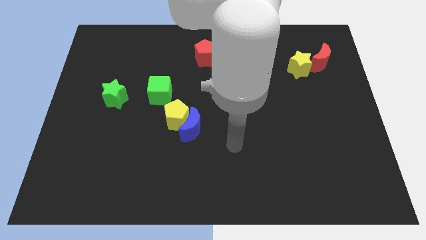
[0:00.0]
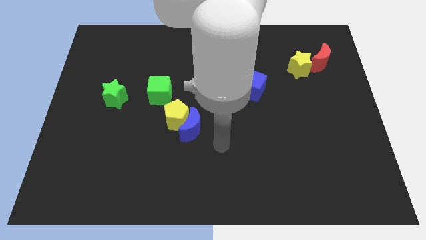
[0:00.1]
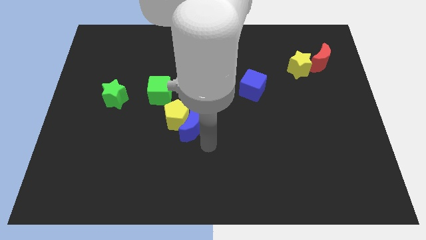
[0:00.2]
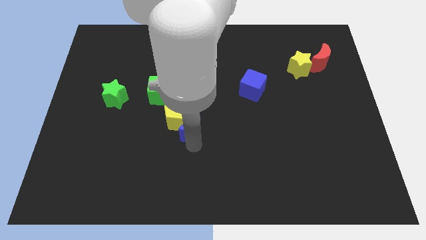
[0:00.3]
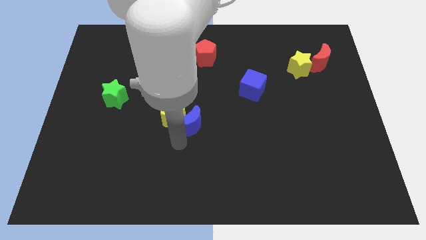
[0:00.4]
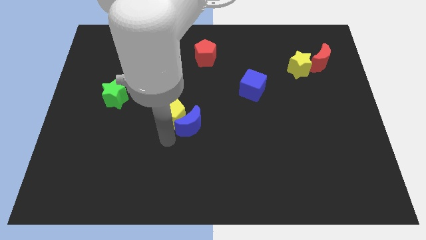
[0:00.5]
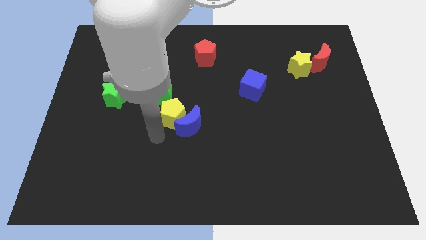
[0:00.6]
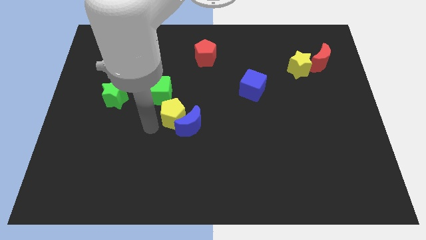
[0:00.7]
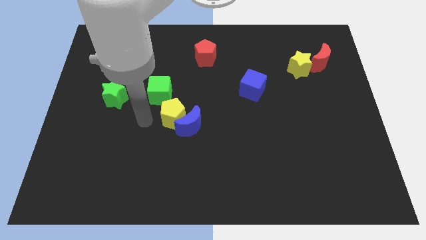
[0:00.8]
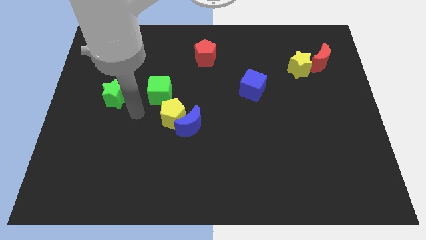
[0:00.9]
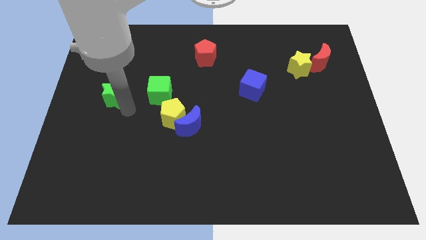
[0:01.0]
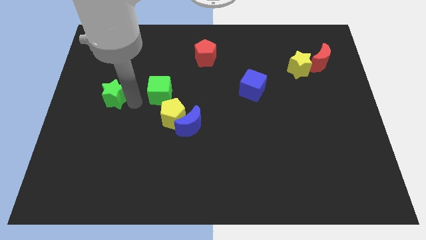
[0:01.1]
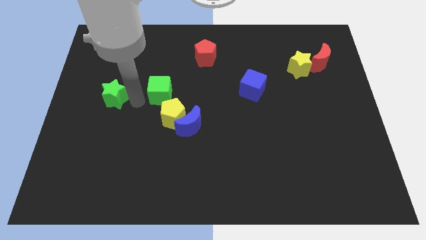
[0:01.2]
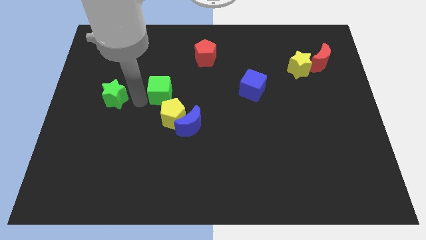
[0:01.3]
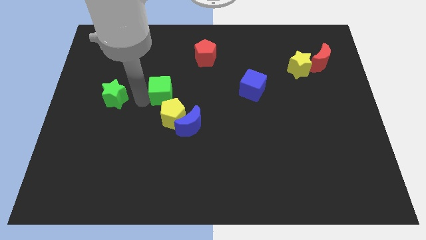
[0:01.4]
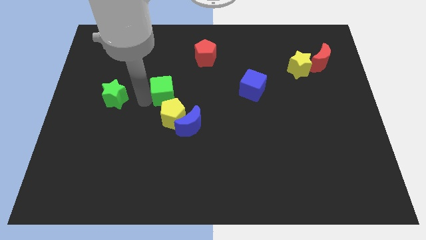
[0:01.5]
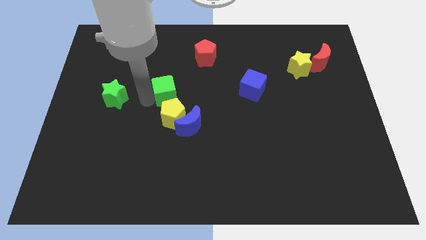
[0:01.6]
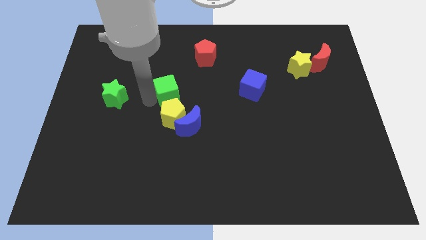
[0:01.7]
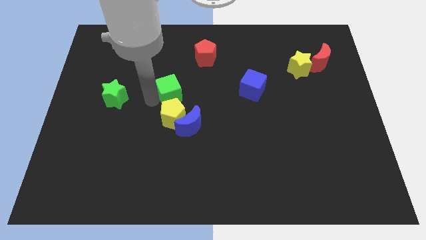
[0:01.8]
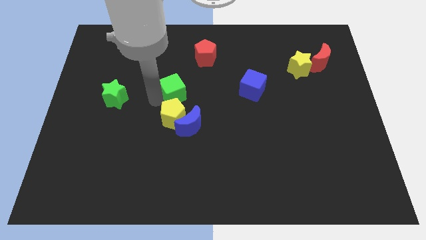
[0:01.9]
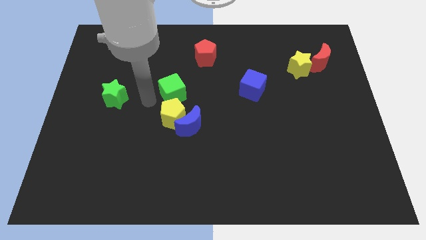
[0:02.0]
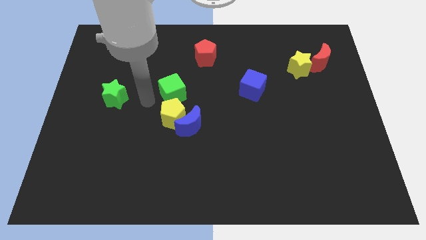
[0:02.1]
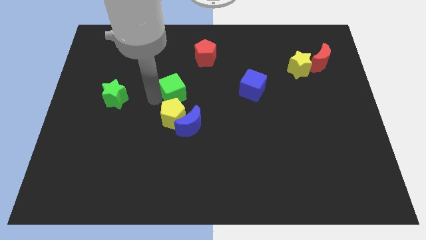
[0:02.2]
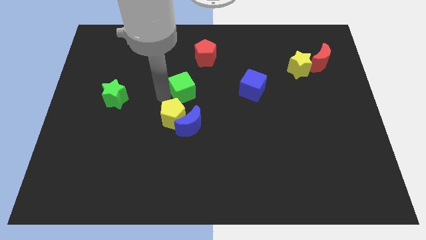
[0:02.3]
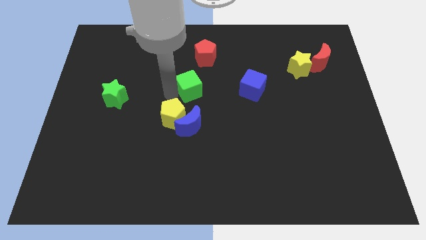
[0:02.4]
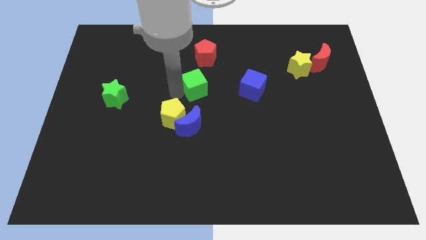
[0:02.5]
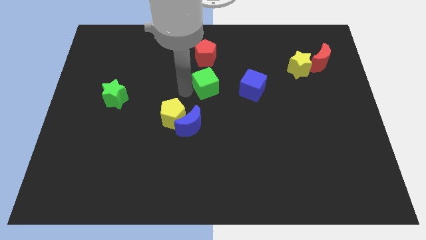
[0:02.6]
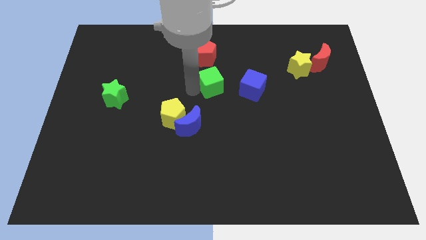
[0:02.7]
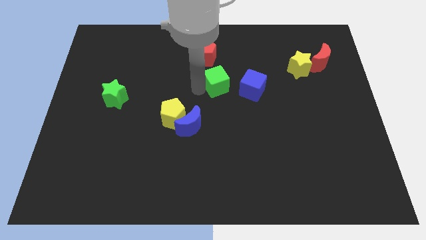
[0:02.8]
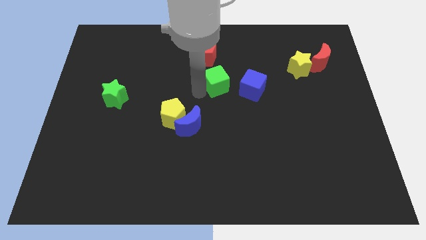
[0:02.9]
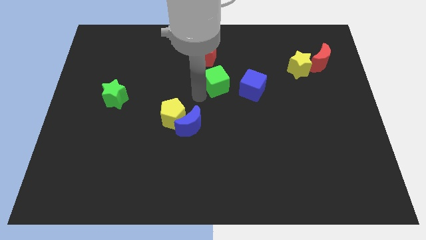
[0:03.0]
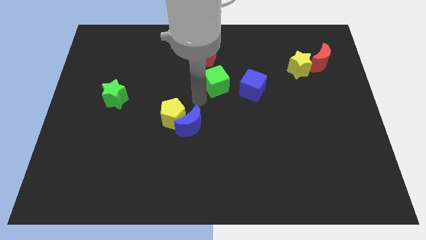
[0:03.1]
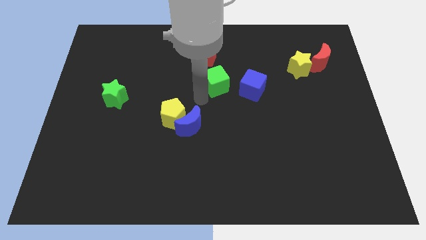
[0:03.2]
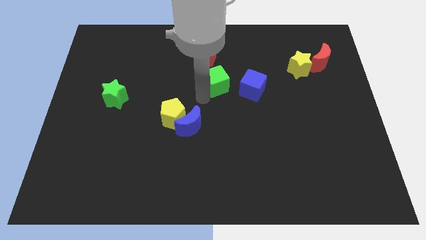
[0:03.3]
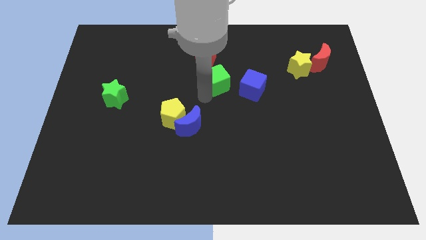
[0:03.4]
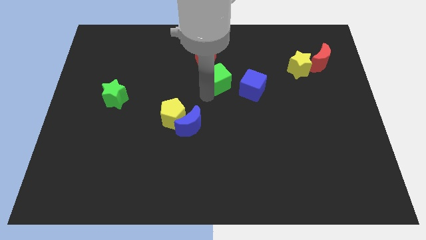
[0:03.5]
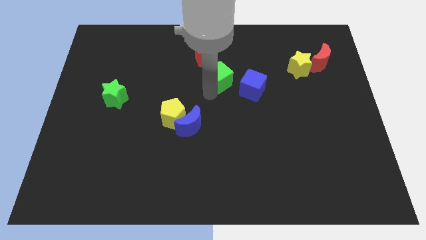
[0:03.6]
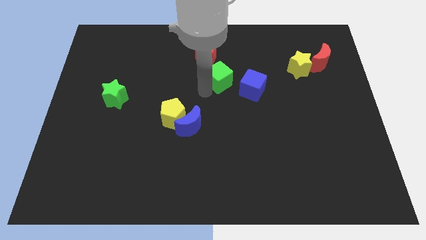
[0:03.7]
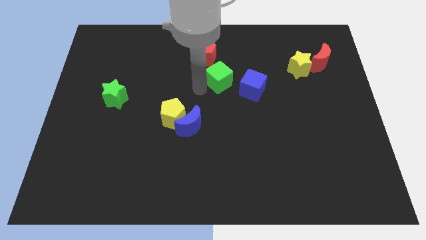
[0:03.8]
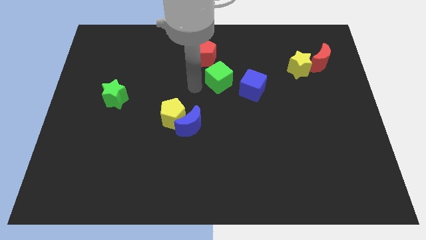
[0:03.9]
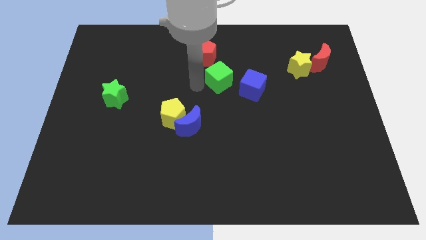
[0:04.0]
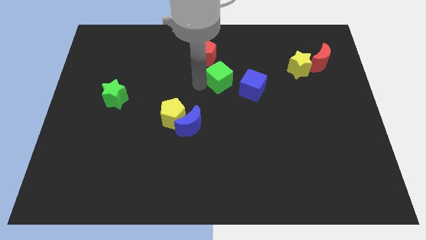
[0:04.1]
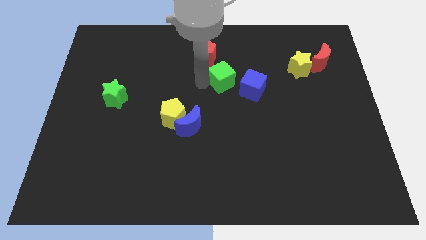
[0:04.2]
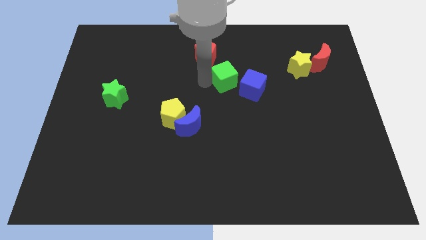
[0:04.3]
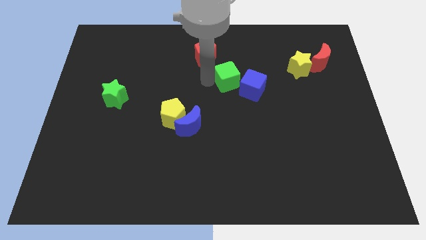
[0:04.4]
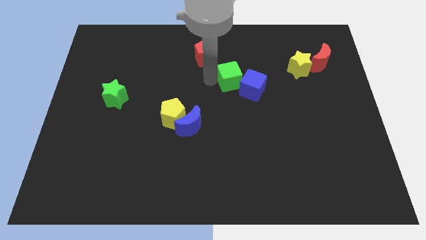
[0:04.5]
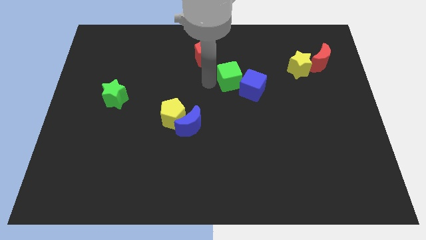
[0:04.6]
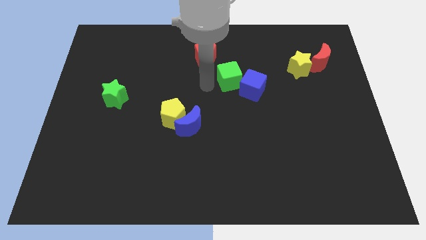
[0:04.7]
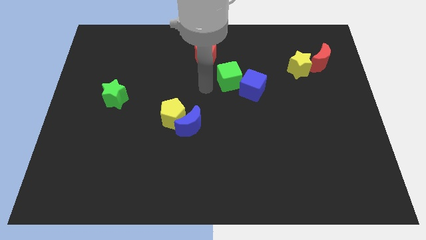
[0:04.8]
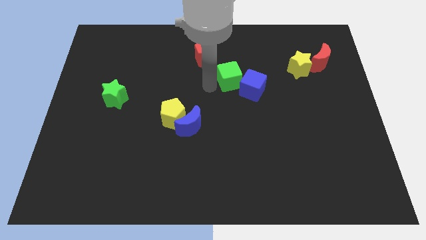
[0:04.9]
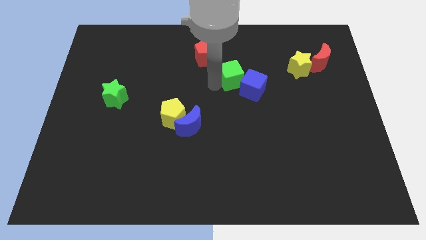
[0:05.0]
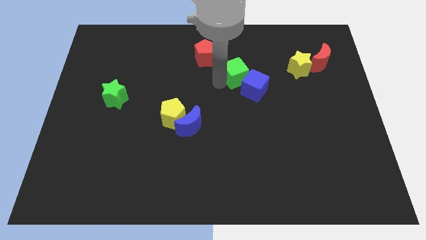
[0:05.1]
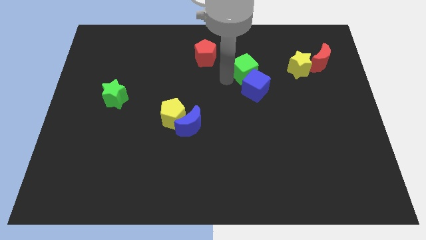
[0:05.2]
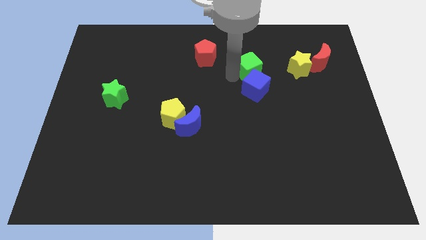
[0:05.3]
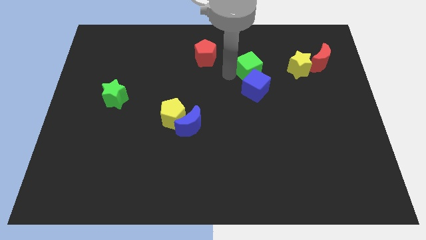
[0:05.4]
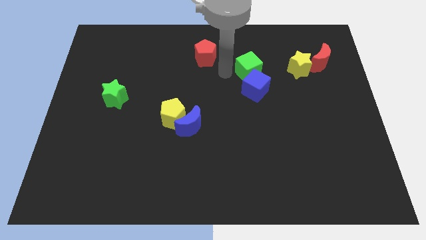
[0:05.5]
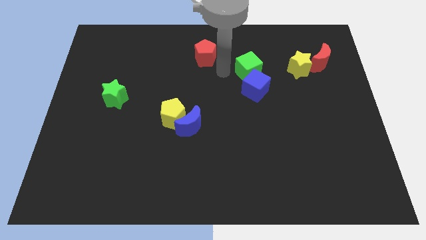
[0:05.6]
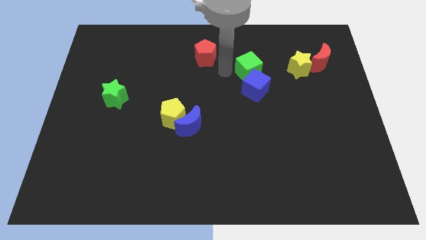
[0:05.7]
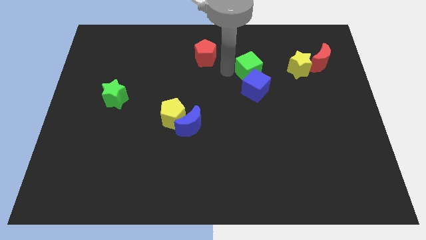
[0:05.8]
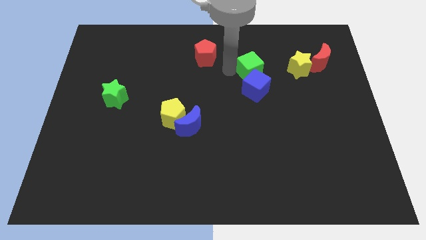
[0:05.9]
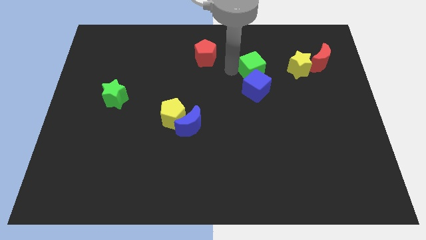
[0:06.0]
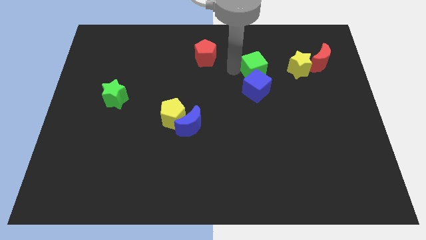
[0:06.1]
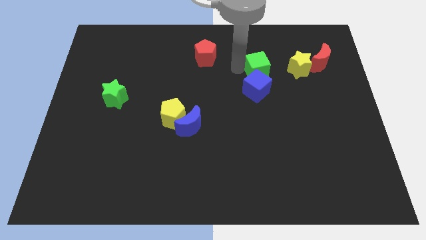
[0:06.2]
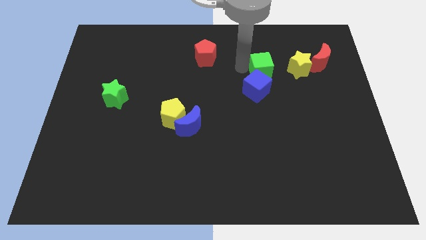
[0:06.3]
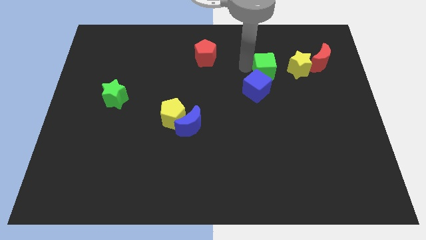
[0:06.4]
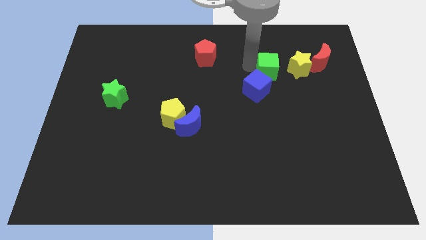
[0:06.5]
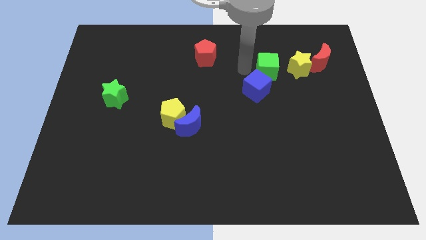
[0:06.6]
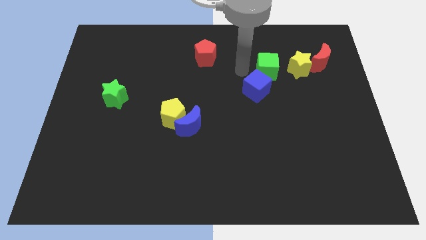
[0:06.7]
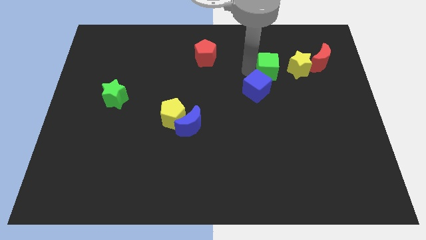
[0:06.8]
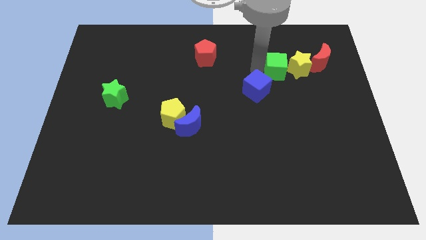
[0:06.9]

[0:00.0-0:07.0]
push the green cube close to the yellow star

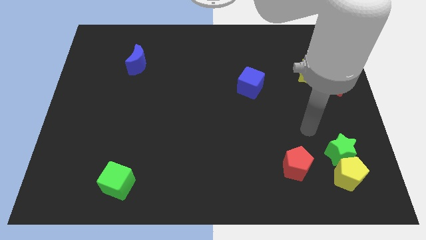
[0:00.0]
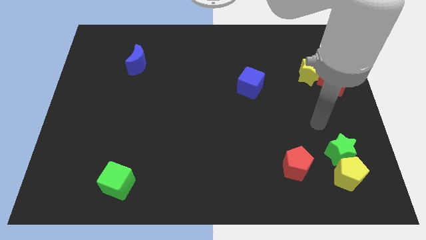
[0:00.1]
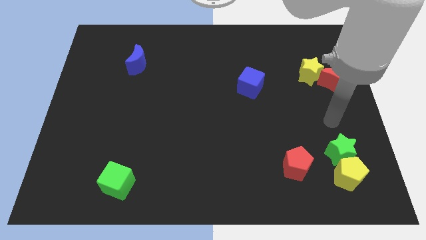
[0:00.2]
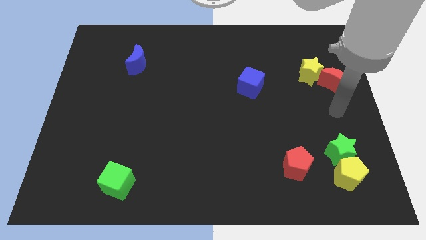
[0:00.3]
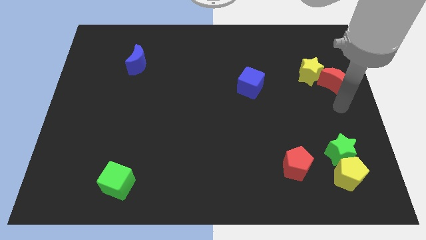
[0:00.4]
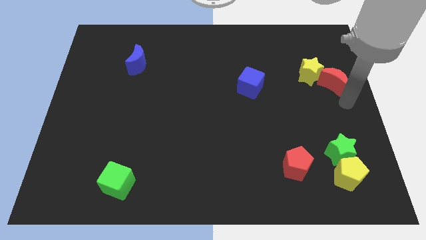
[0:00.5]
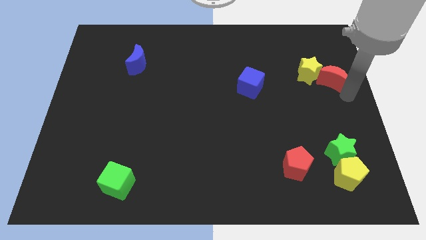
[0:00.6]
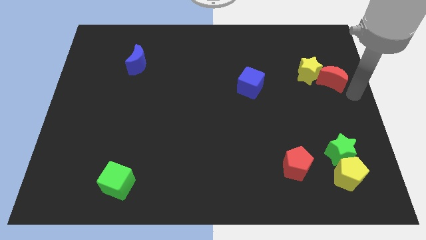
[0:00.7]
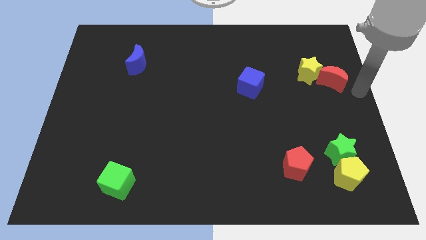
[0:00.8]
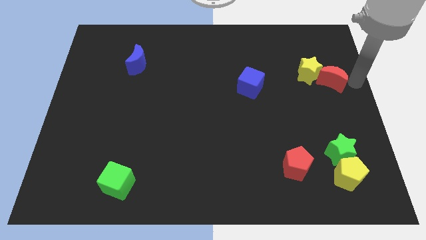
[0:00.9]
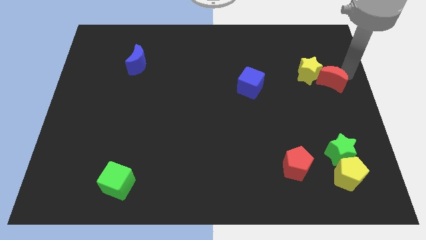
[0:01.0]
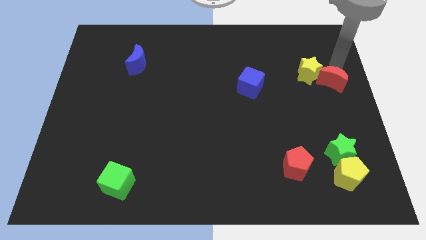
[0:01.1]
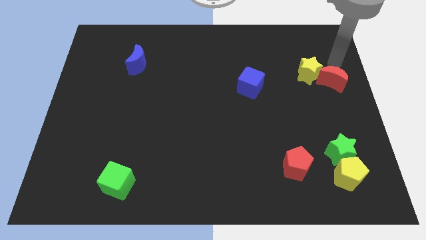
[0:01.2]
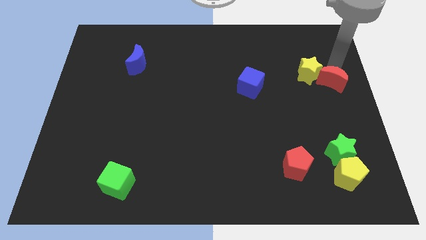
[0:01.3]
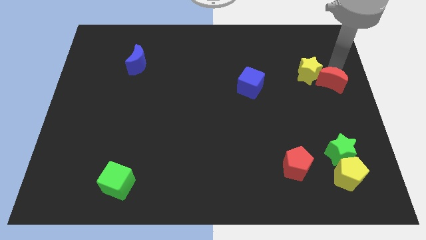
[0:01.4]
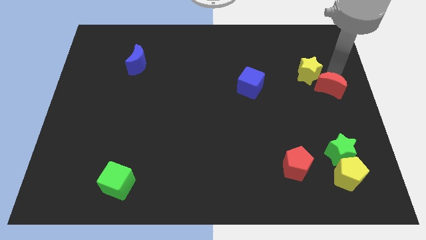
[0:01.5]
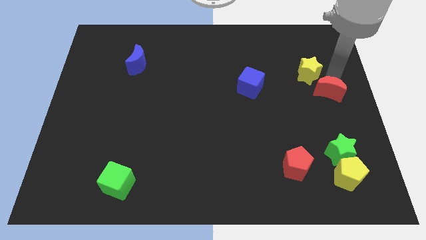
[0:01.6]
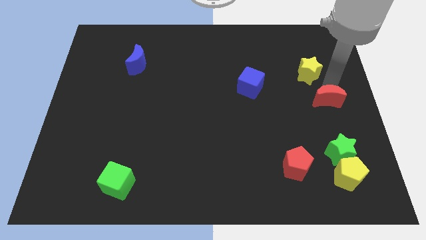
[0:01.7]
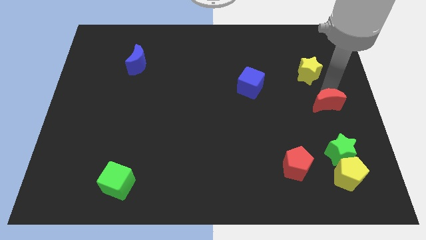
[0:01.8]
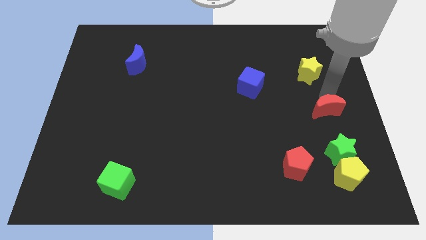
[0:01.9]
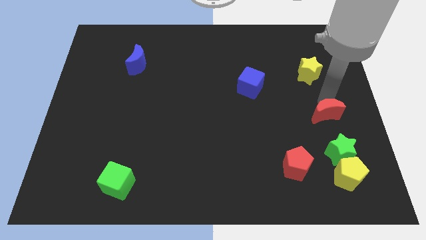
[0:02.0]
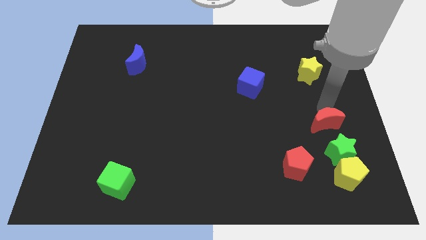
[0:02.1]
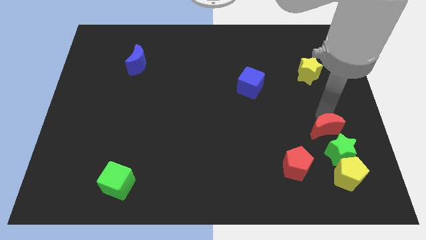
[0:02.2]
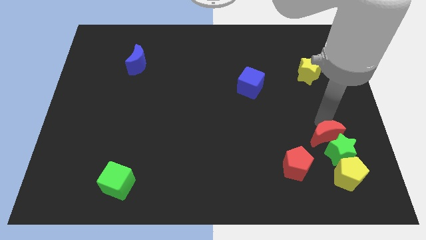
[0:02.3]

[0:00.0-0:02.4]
push the red moon towards the green star
